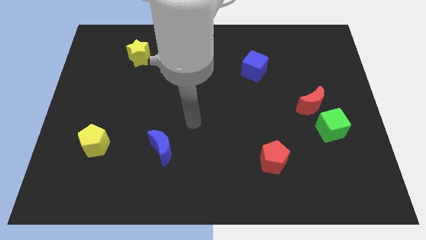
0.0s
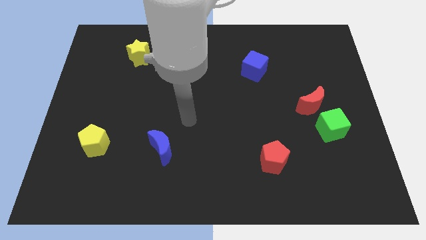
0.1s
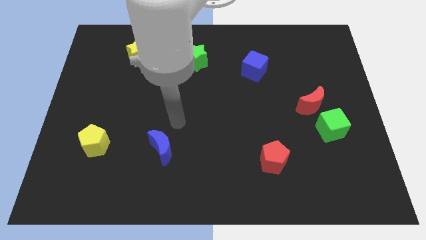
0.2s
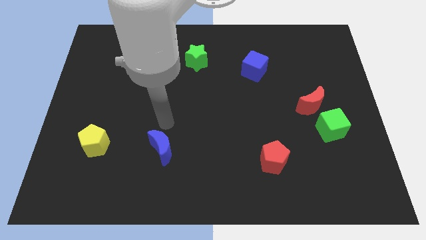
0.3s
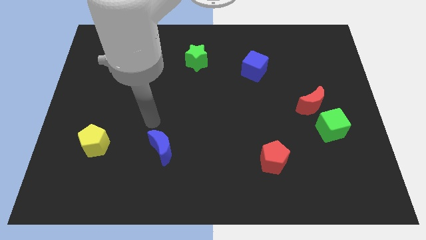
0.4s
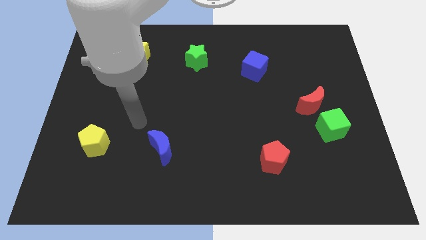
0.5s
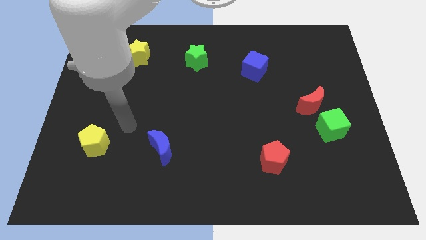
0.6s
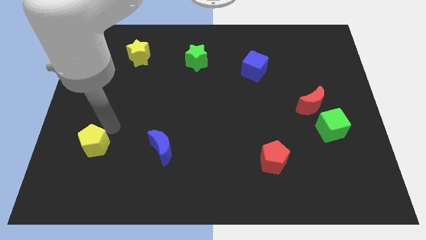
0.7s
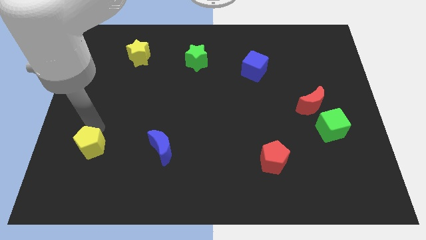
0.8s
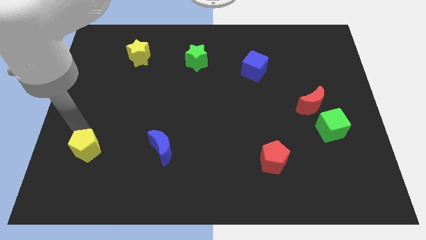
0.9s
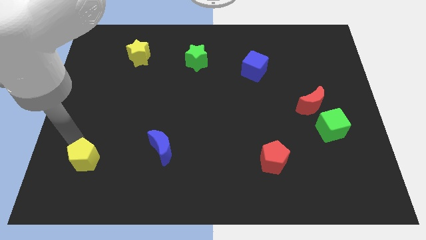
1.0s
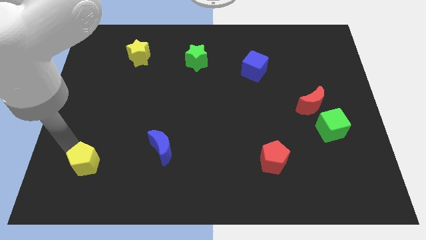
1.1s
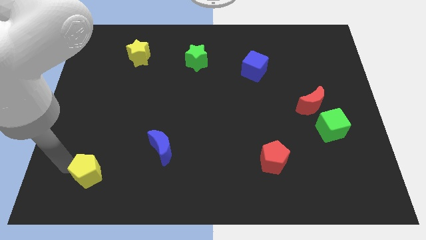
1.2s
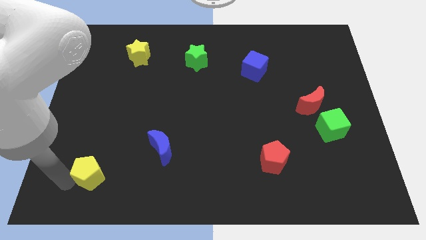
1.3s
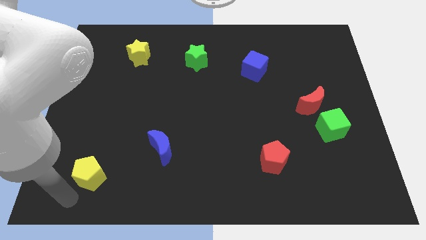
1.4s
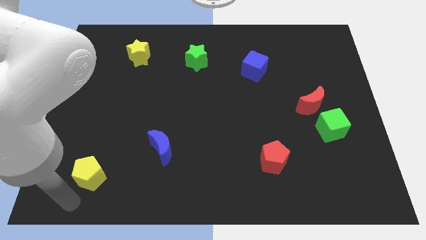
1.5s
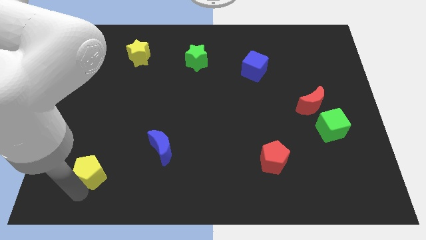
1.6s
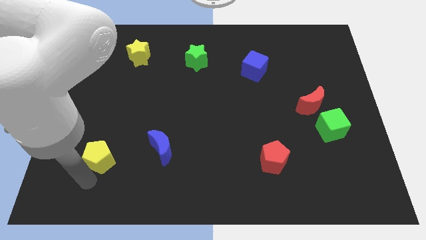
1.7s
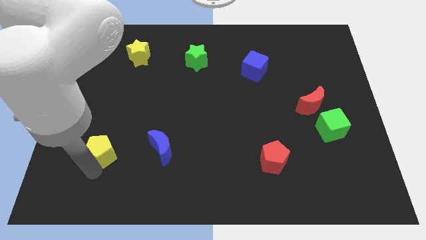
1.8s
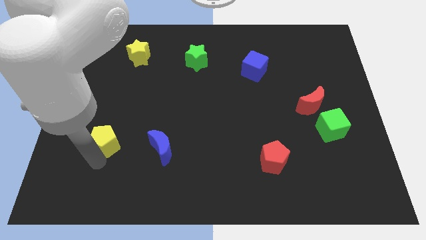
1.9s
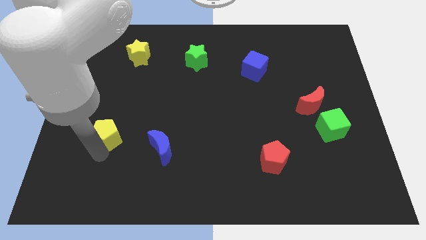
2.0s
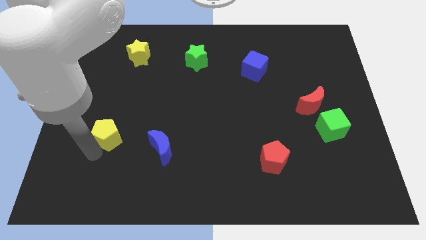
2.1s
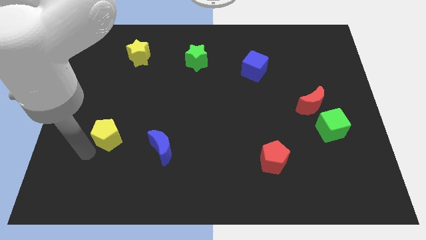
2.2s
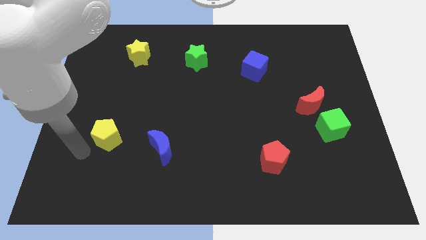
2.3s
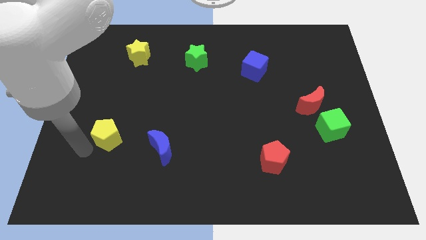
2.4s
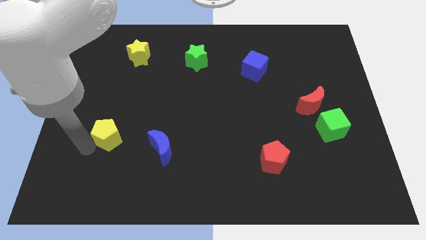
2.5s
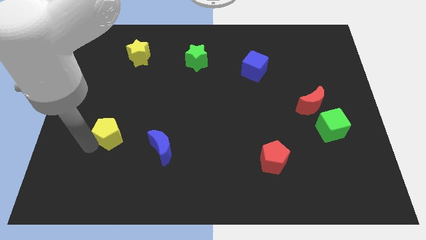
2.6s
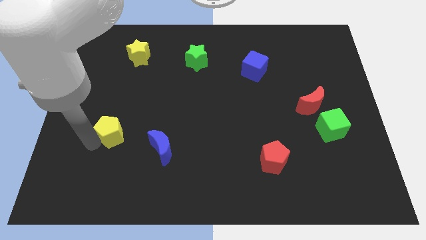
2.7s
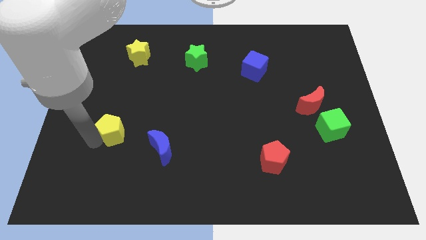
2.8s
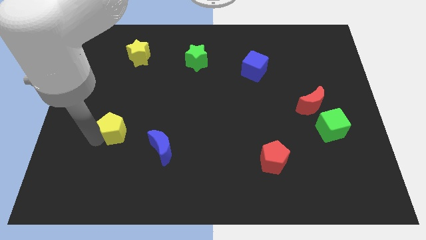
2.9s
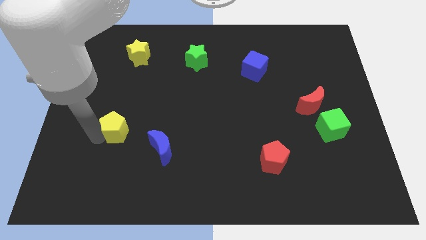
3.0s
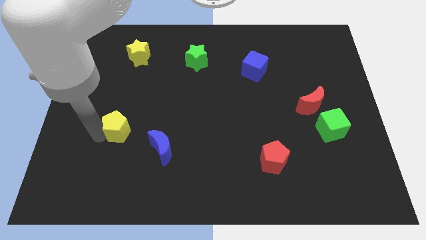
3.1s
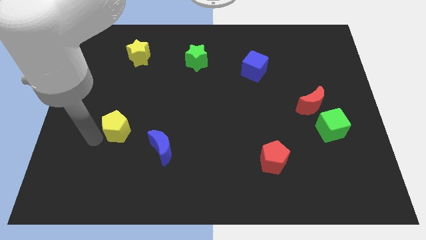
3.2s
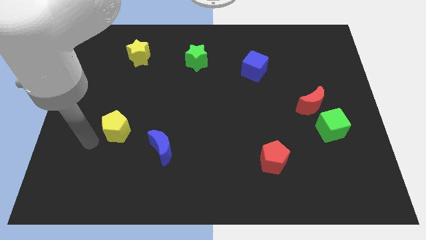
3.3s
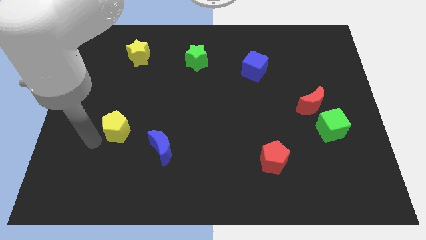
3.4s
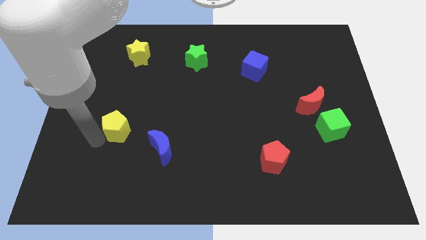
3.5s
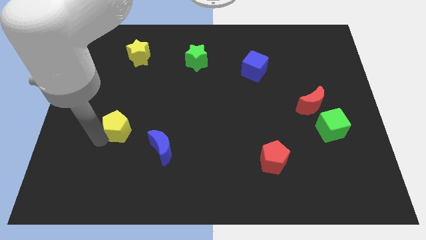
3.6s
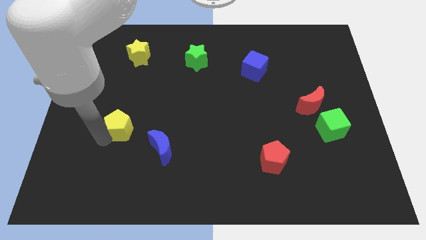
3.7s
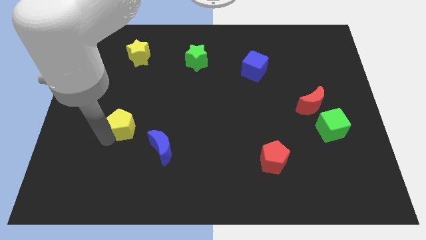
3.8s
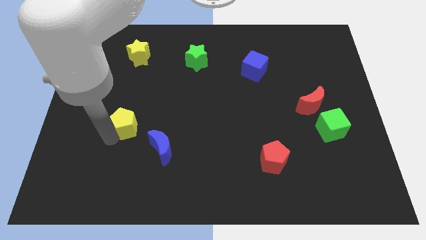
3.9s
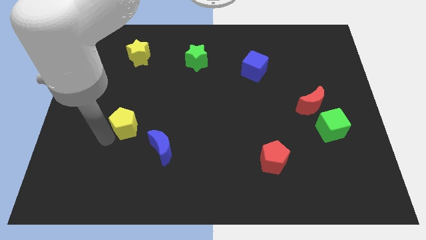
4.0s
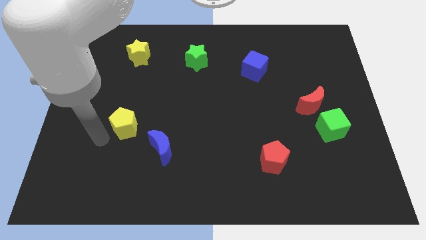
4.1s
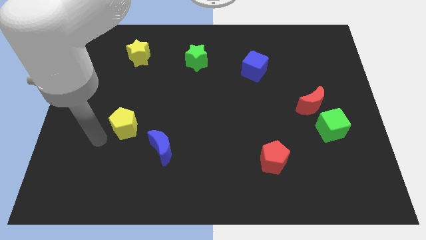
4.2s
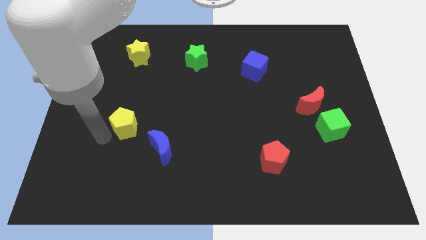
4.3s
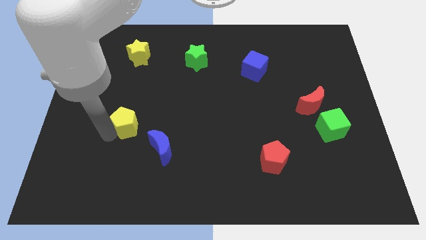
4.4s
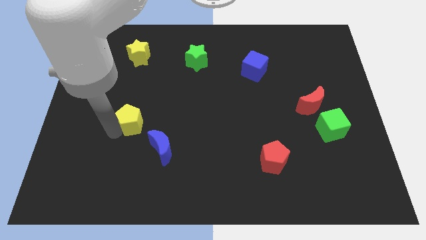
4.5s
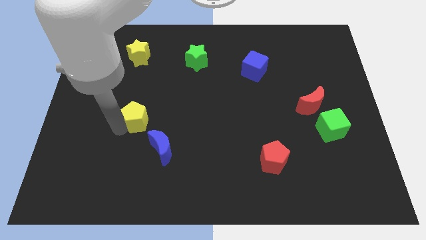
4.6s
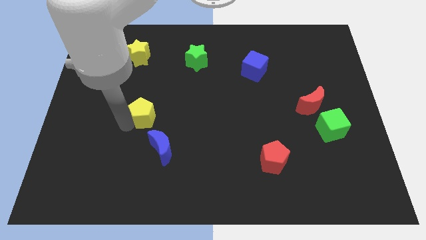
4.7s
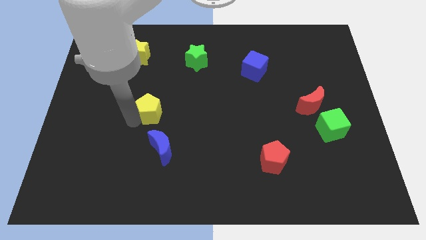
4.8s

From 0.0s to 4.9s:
move the yellow pentagon above the blue moon

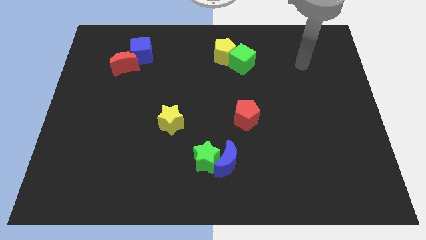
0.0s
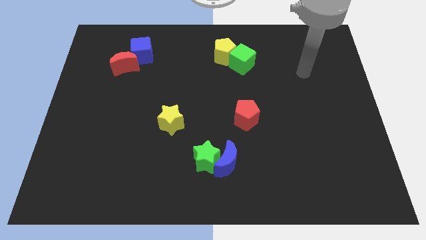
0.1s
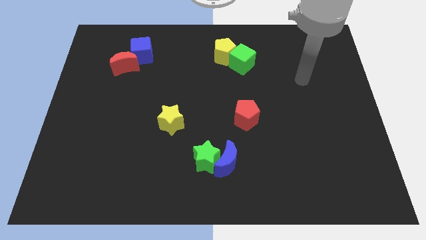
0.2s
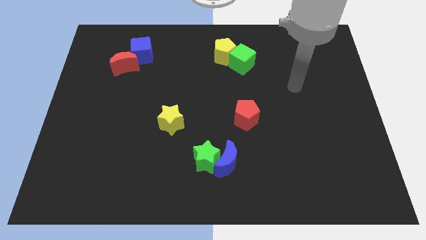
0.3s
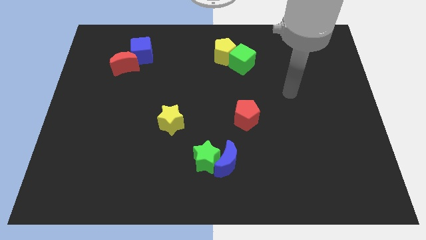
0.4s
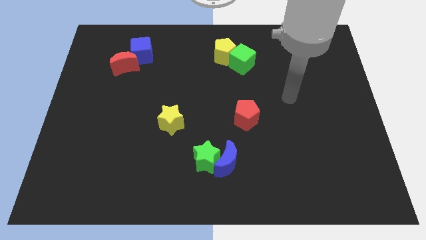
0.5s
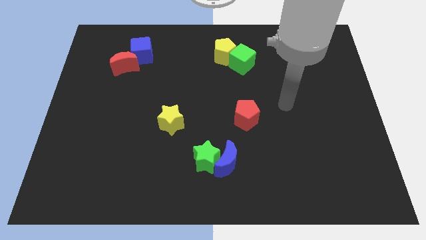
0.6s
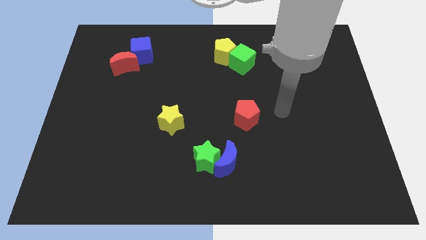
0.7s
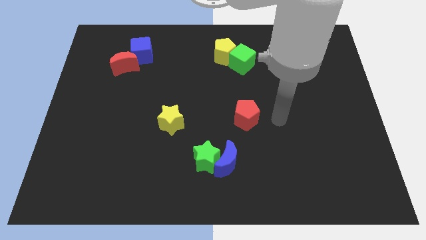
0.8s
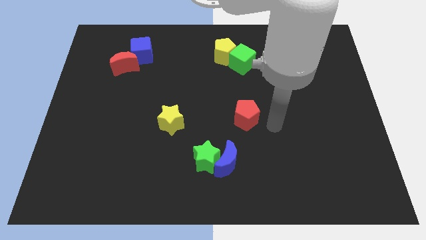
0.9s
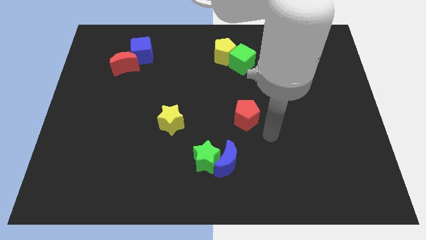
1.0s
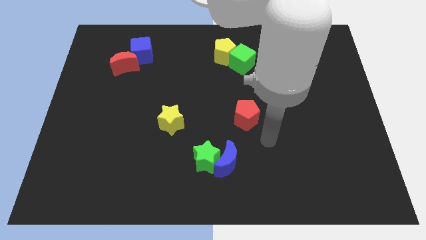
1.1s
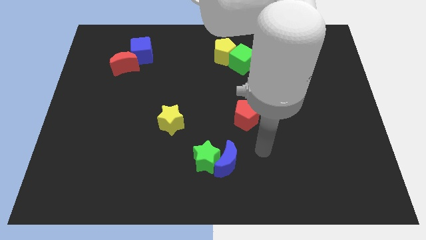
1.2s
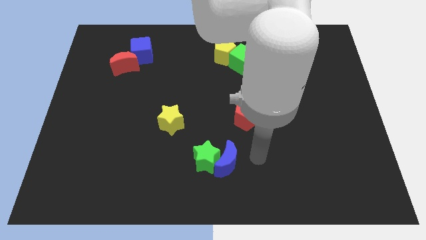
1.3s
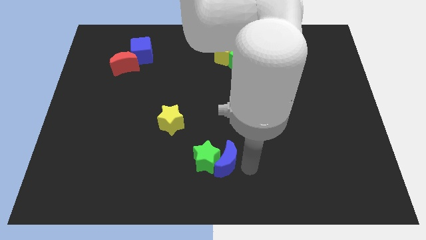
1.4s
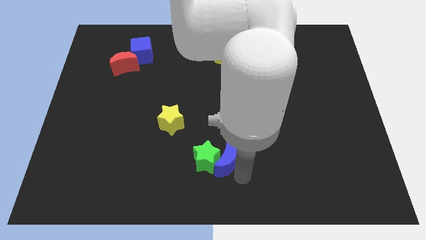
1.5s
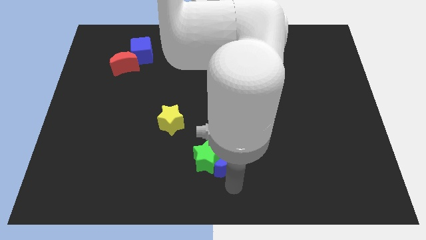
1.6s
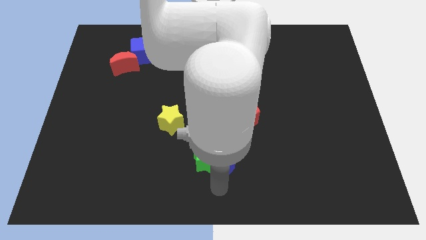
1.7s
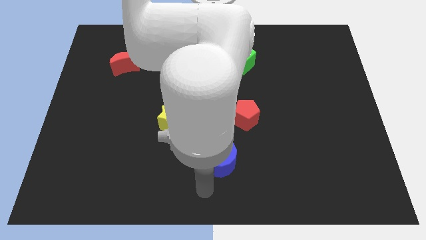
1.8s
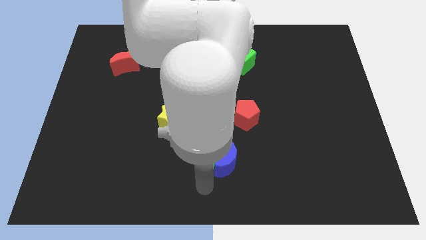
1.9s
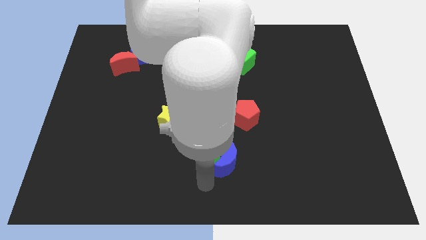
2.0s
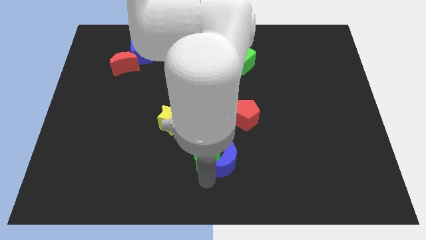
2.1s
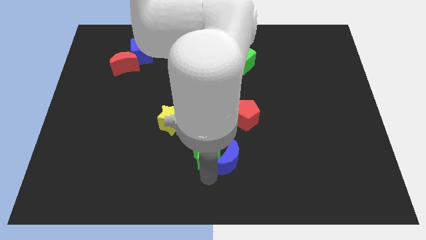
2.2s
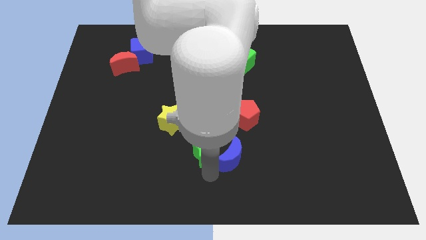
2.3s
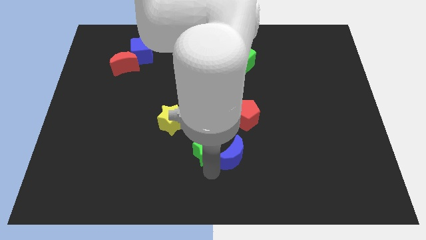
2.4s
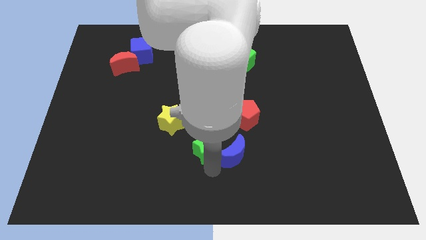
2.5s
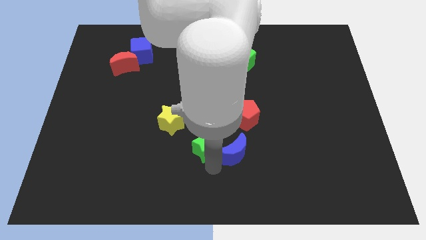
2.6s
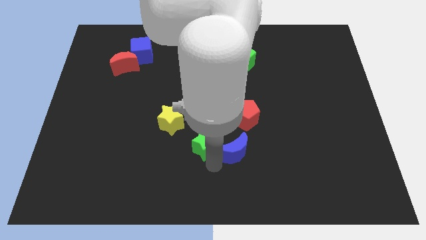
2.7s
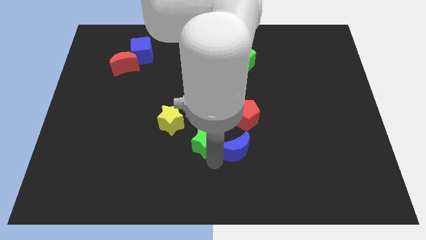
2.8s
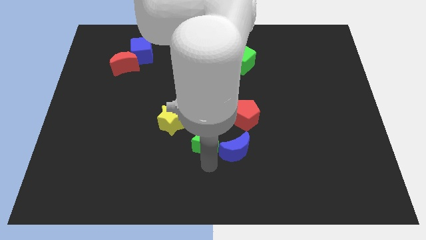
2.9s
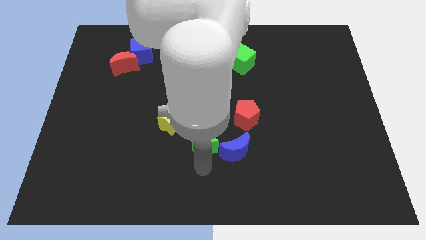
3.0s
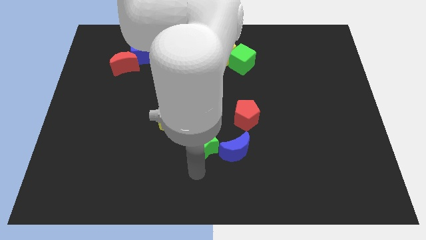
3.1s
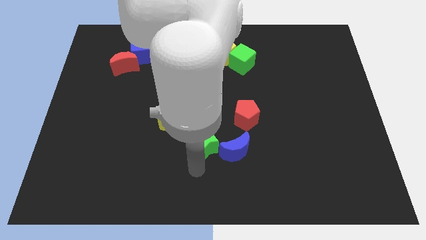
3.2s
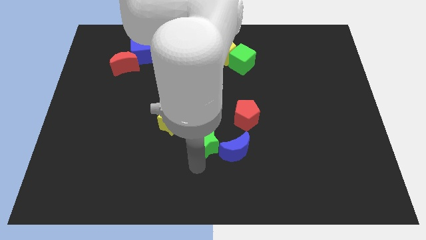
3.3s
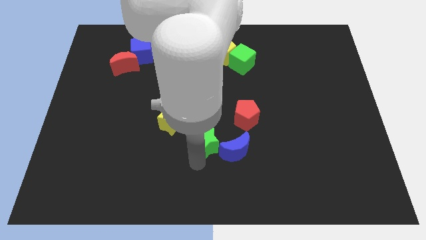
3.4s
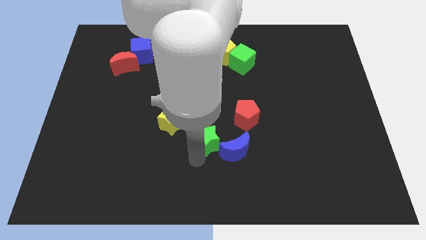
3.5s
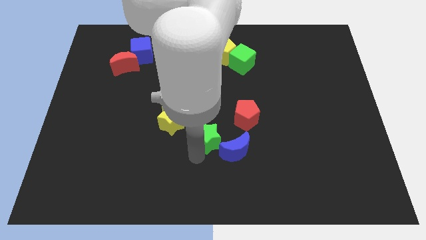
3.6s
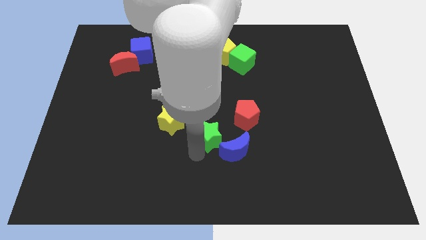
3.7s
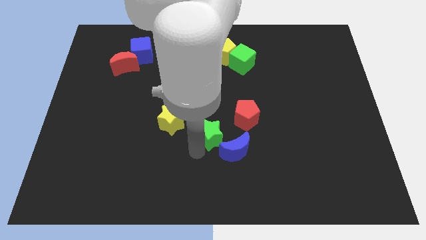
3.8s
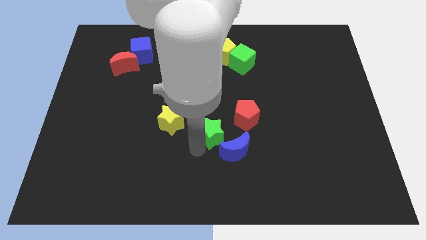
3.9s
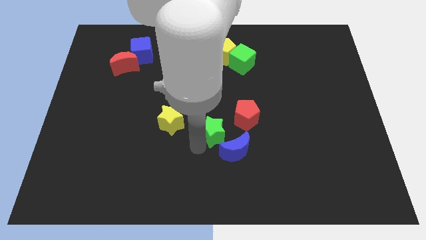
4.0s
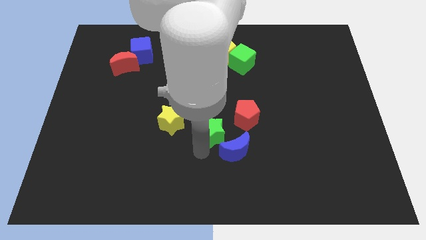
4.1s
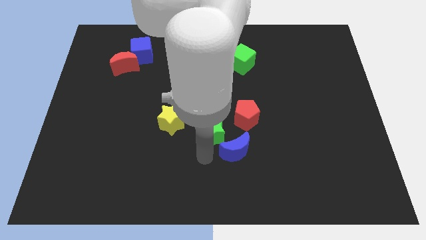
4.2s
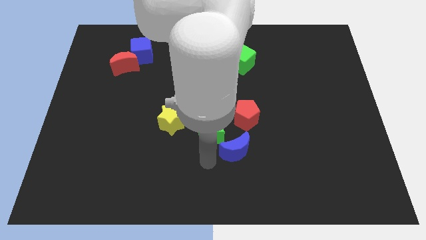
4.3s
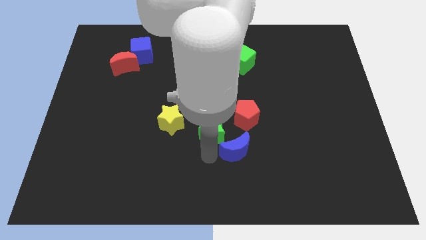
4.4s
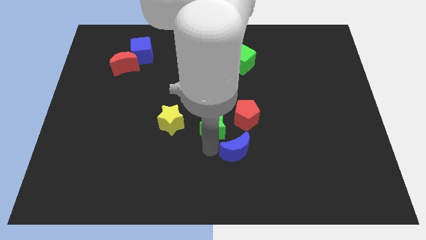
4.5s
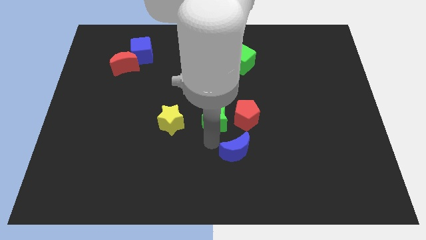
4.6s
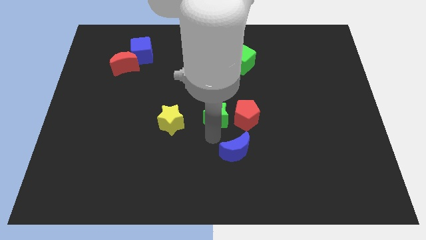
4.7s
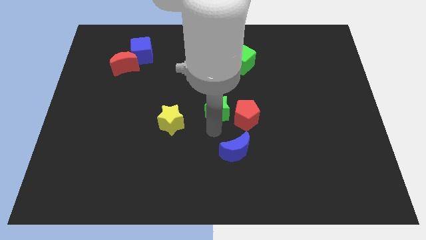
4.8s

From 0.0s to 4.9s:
put the green star to the top left of the red pentagon
